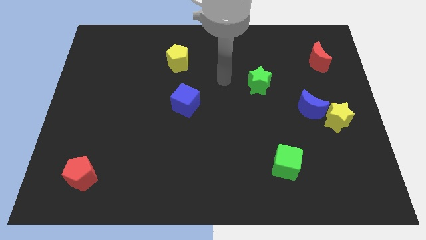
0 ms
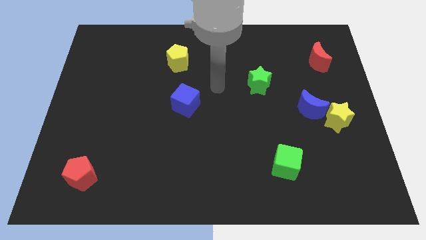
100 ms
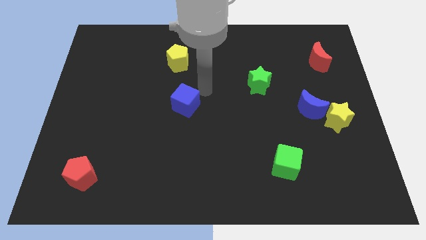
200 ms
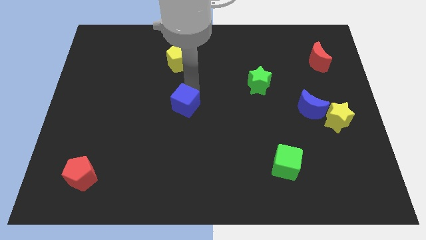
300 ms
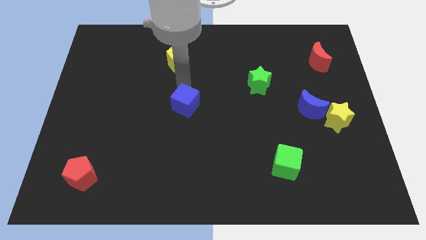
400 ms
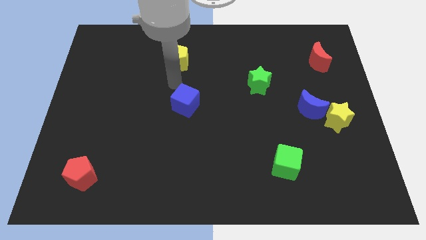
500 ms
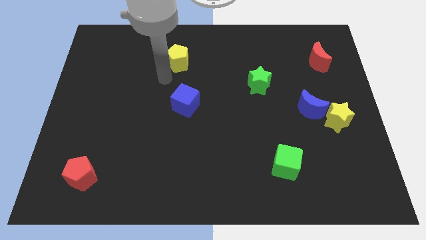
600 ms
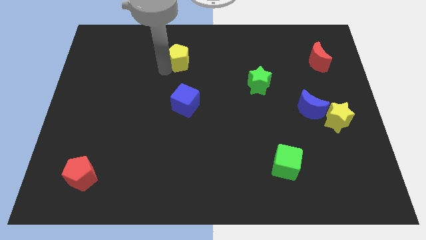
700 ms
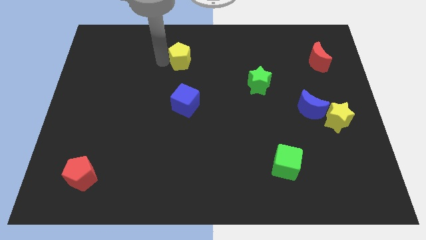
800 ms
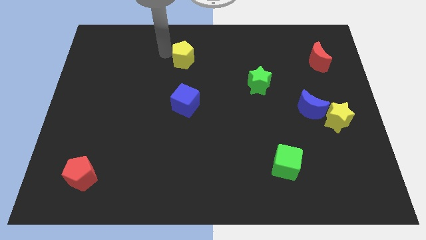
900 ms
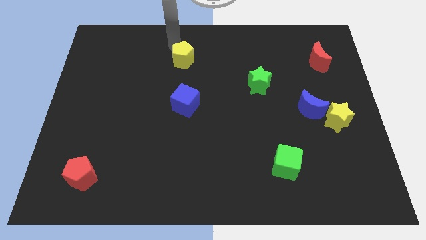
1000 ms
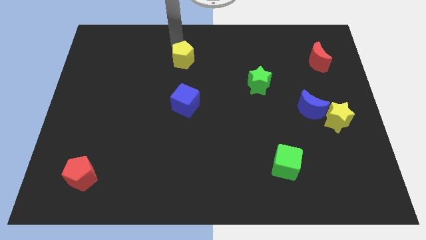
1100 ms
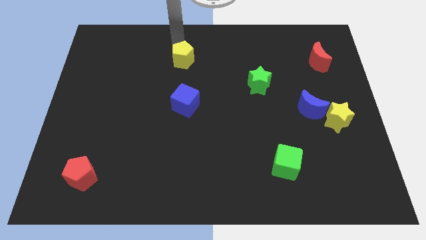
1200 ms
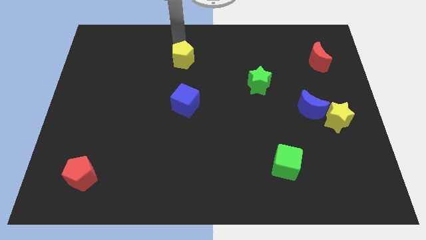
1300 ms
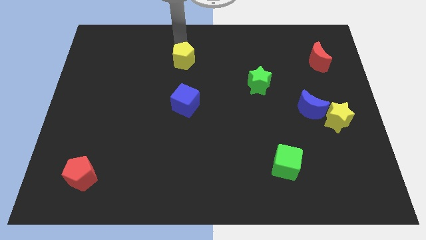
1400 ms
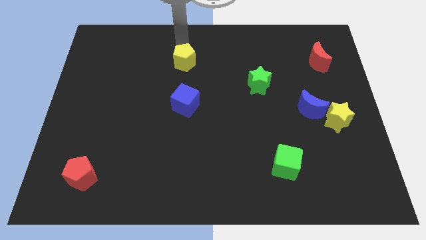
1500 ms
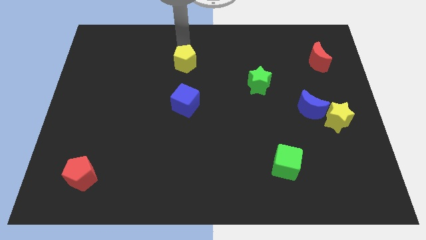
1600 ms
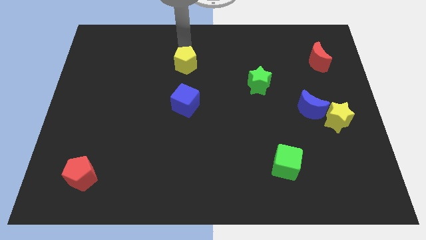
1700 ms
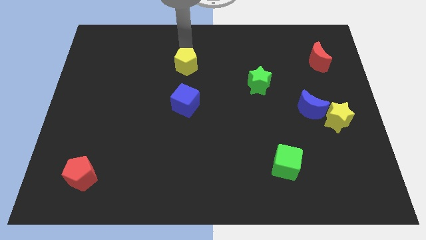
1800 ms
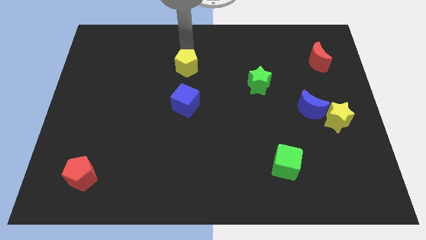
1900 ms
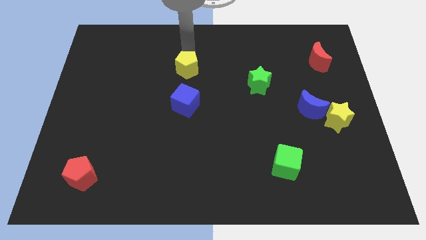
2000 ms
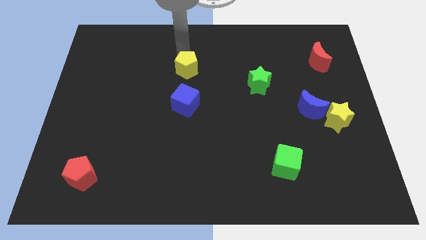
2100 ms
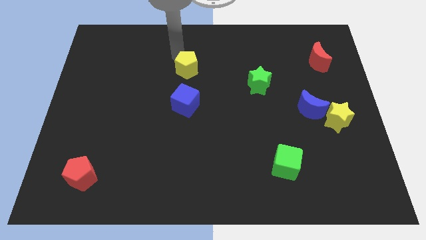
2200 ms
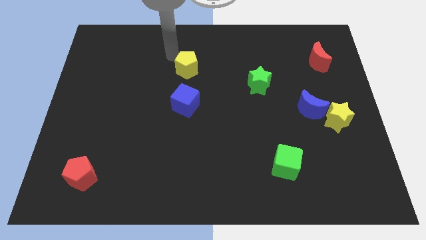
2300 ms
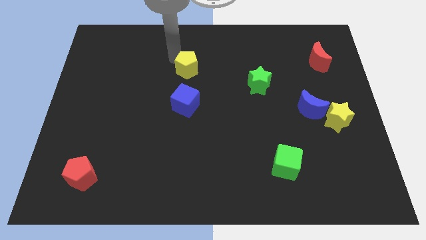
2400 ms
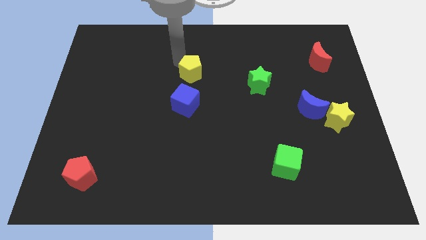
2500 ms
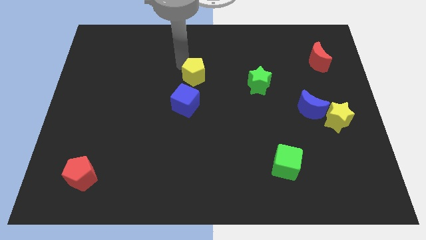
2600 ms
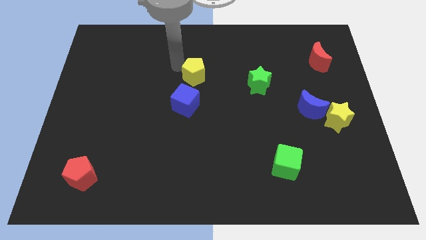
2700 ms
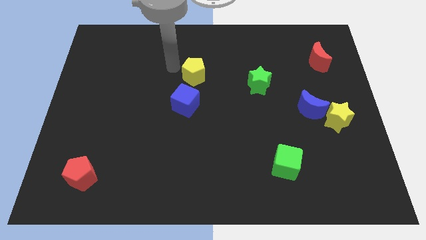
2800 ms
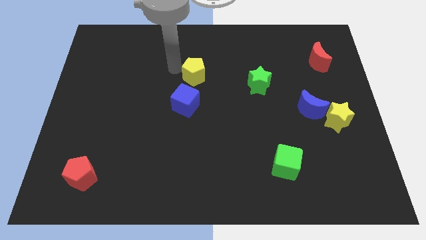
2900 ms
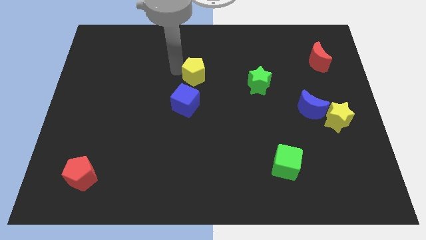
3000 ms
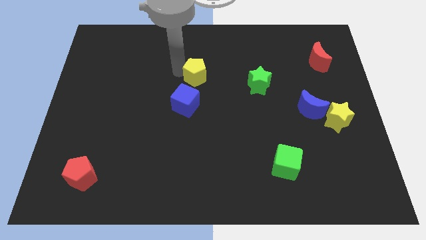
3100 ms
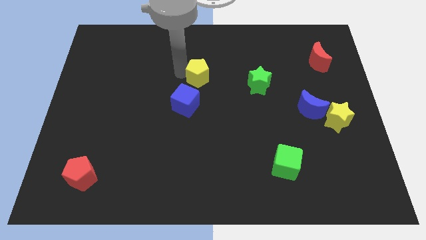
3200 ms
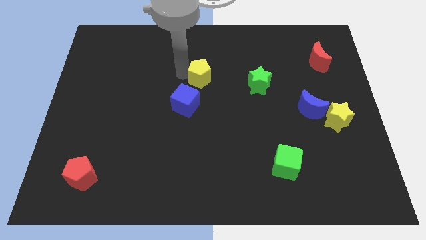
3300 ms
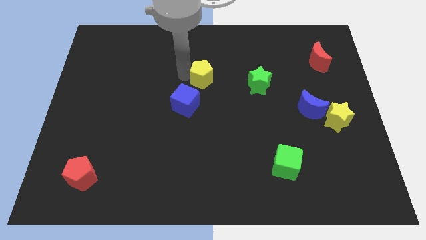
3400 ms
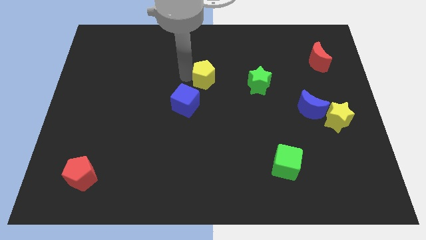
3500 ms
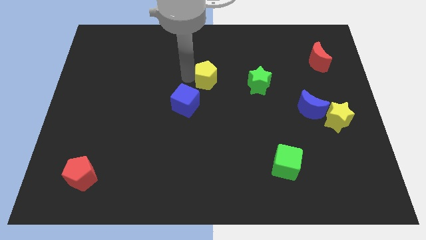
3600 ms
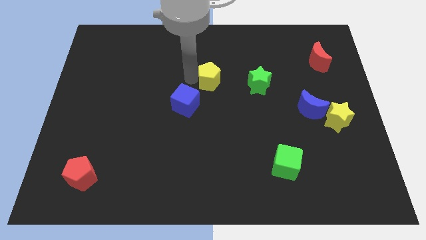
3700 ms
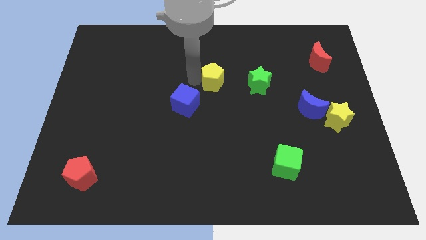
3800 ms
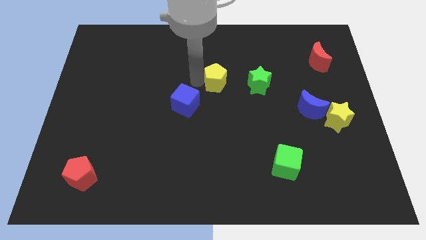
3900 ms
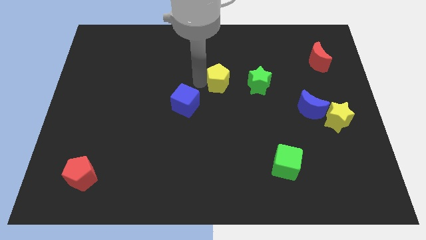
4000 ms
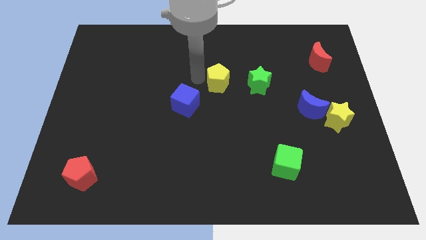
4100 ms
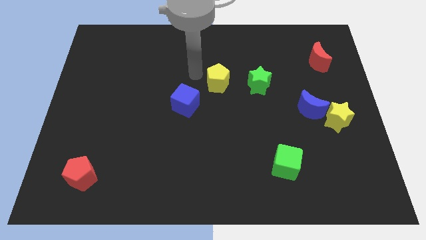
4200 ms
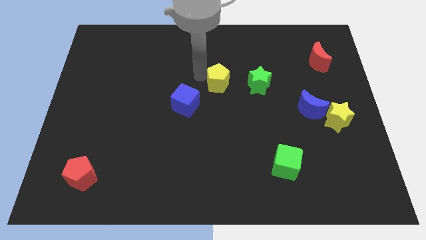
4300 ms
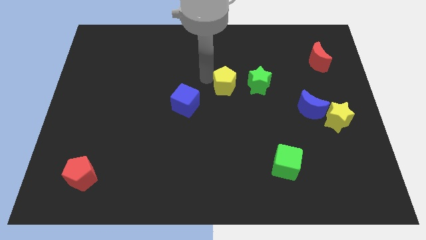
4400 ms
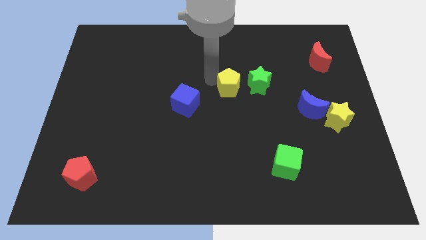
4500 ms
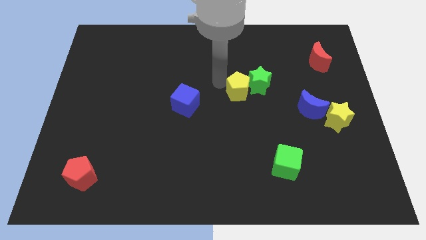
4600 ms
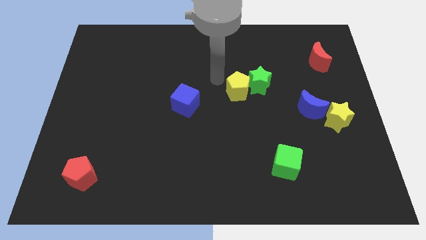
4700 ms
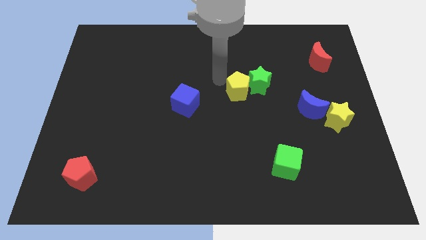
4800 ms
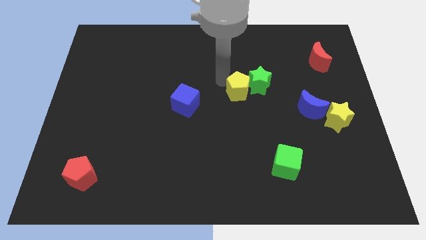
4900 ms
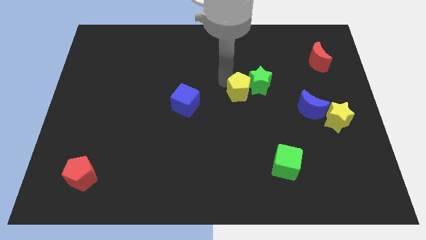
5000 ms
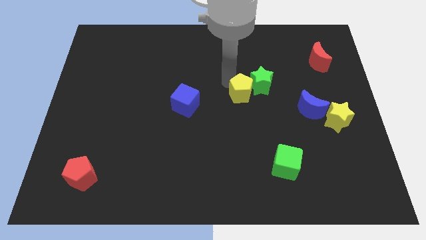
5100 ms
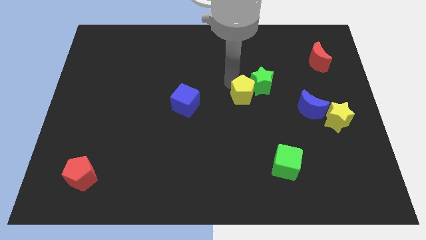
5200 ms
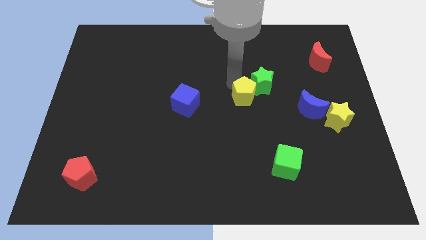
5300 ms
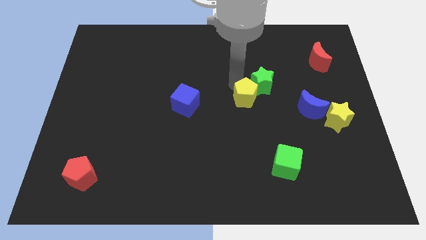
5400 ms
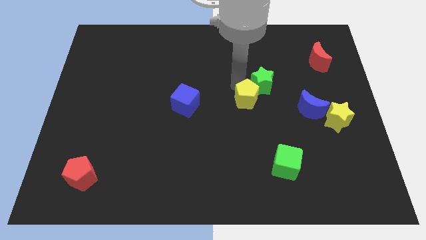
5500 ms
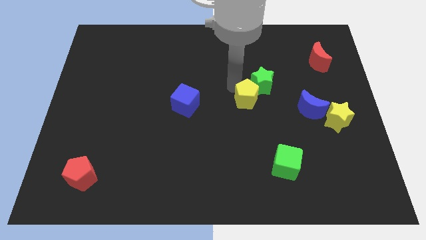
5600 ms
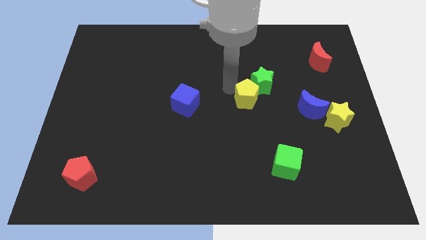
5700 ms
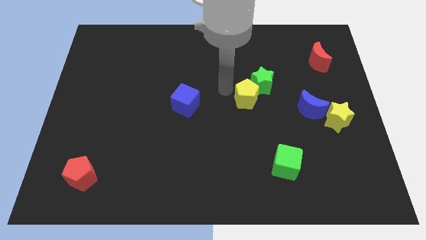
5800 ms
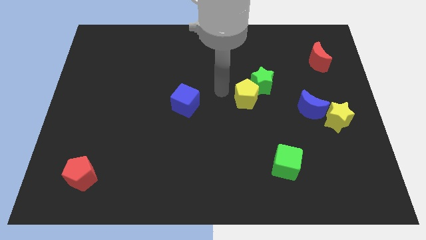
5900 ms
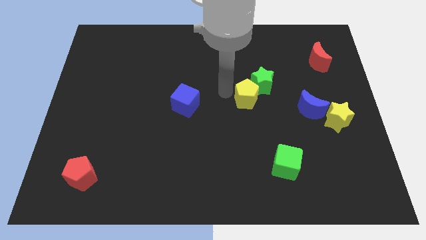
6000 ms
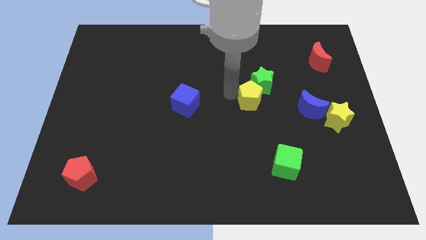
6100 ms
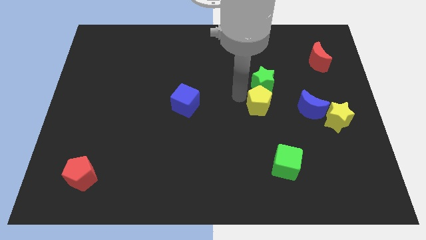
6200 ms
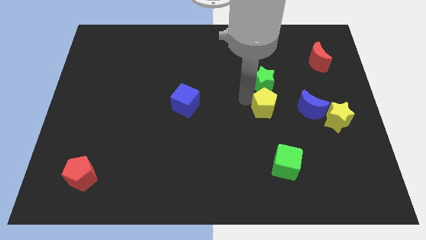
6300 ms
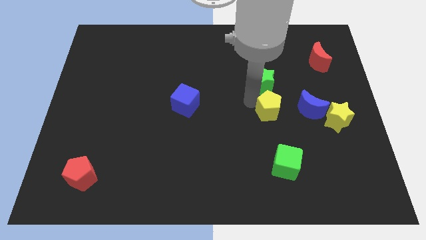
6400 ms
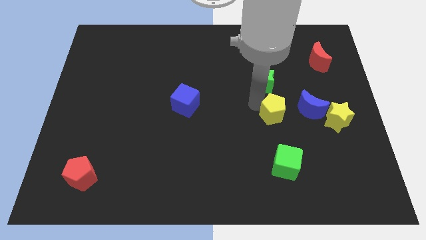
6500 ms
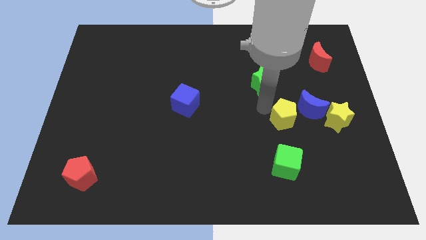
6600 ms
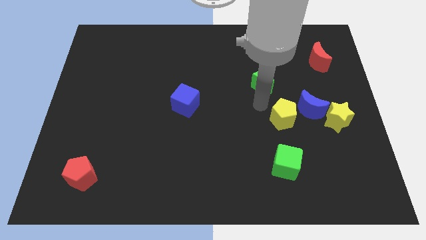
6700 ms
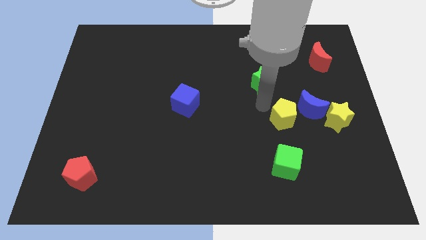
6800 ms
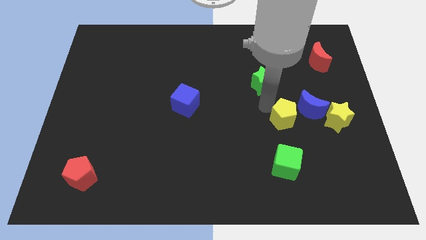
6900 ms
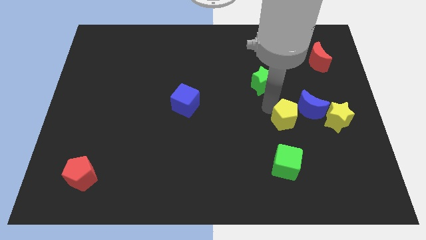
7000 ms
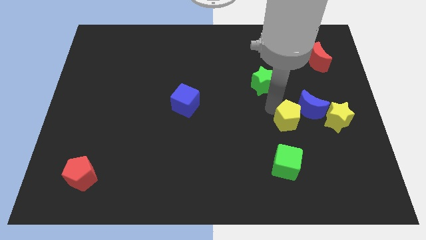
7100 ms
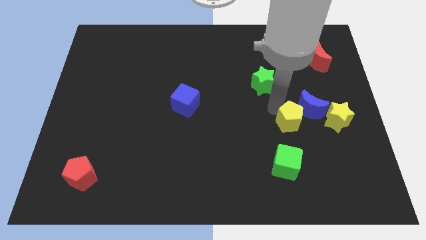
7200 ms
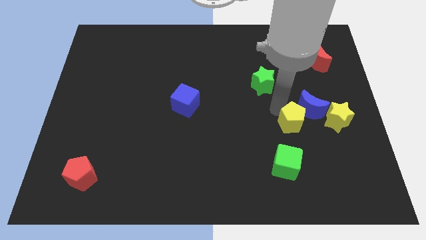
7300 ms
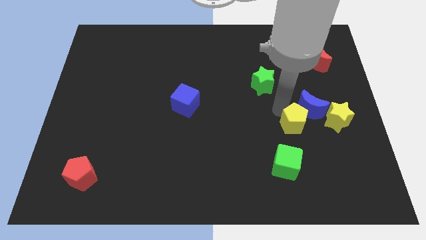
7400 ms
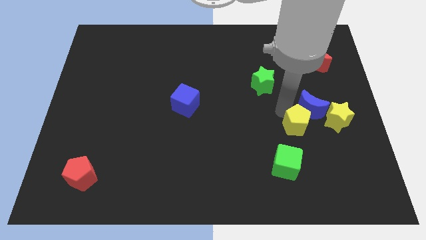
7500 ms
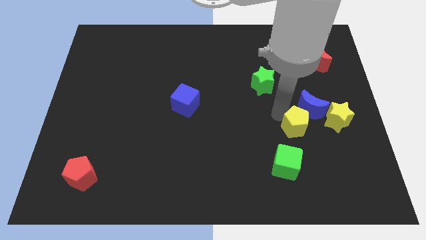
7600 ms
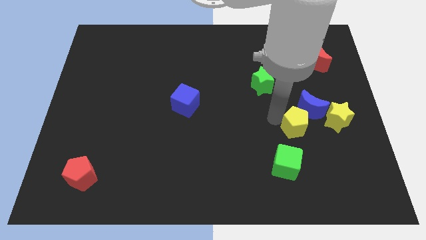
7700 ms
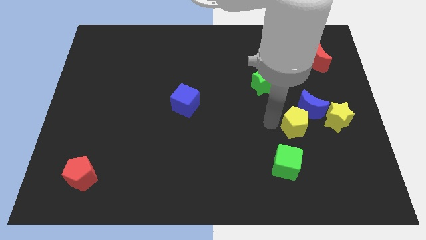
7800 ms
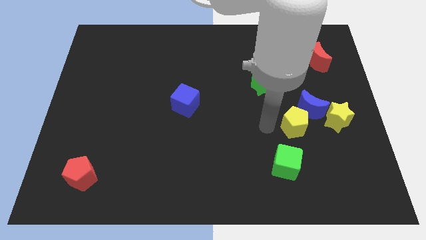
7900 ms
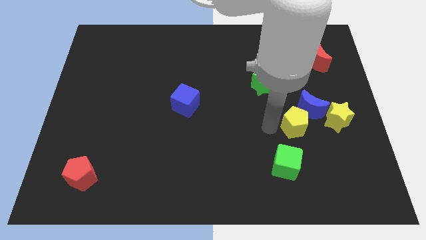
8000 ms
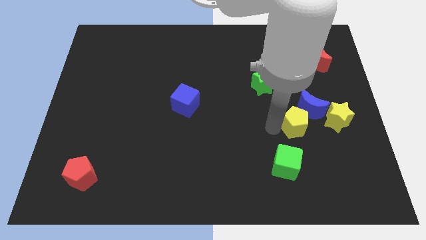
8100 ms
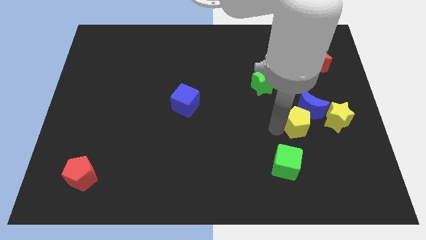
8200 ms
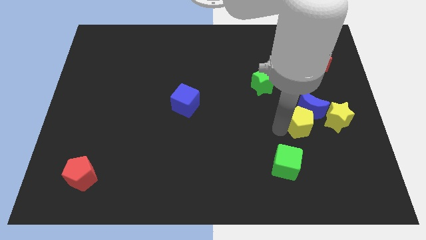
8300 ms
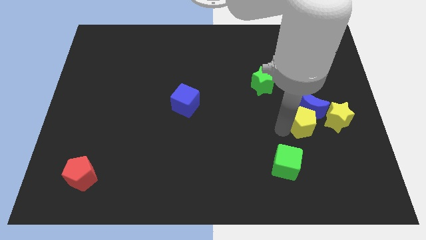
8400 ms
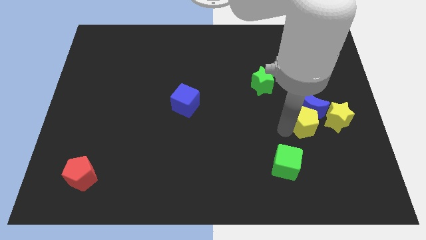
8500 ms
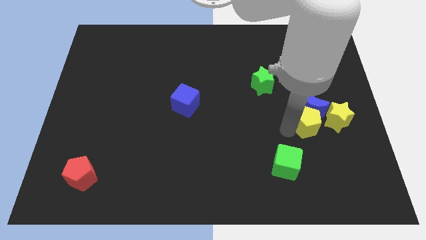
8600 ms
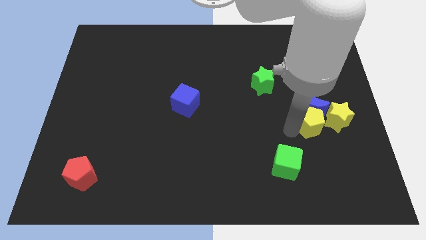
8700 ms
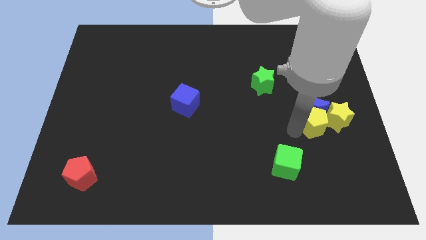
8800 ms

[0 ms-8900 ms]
put the yellow pentagon towards the yellow star
